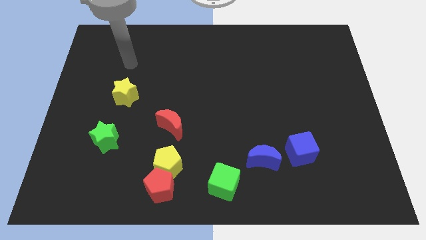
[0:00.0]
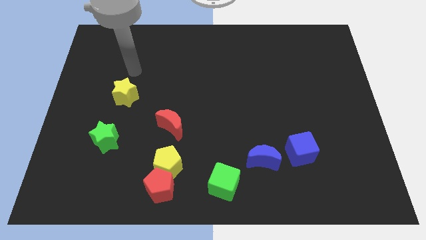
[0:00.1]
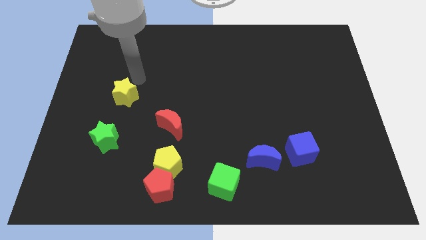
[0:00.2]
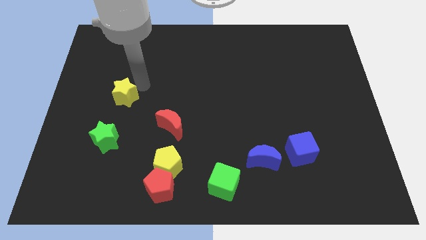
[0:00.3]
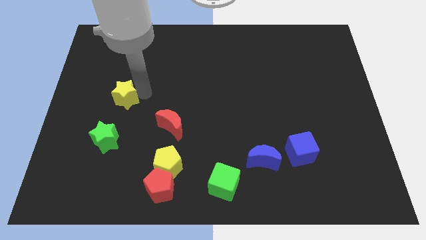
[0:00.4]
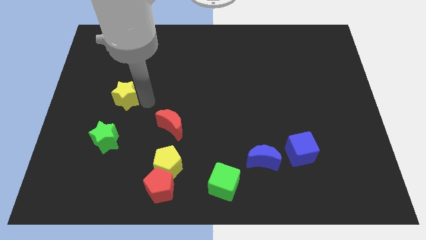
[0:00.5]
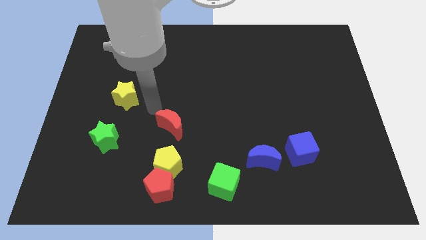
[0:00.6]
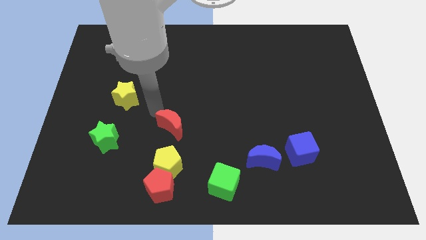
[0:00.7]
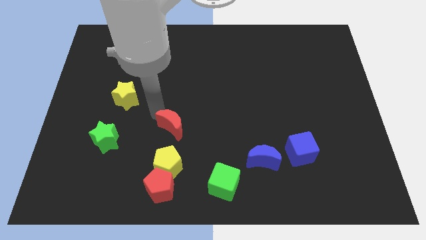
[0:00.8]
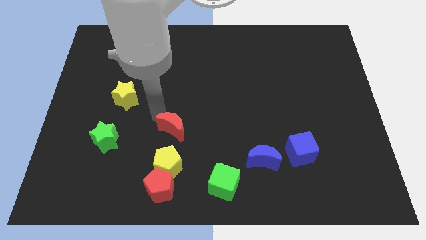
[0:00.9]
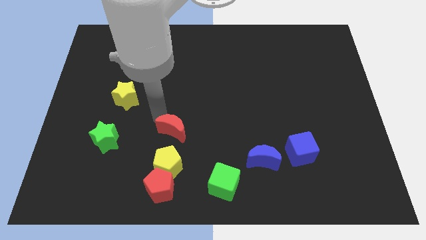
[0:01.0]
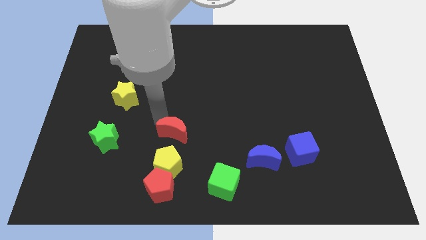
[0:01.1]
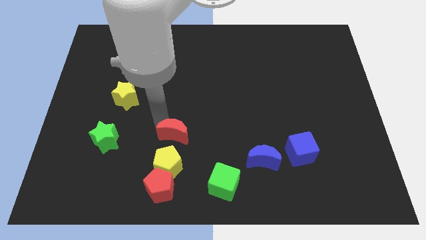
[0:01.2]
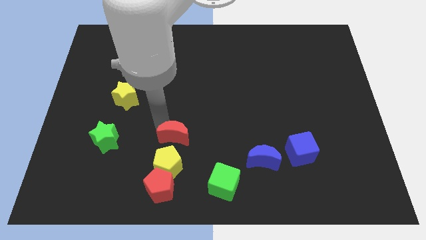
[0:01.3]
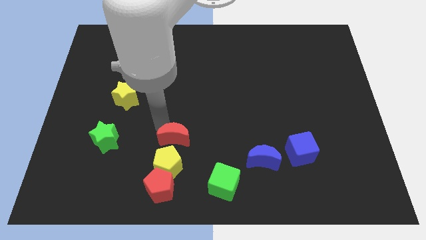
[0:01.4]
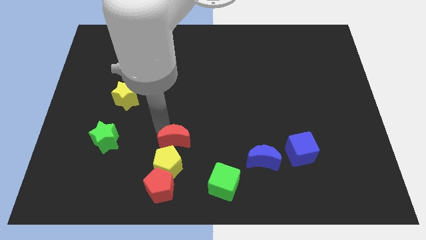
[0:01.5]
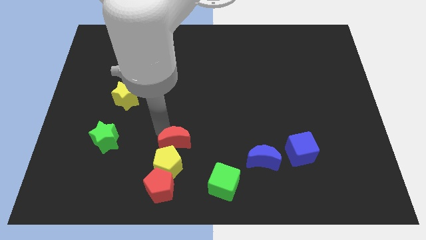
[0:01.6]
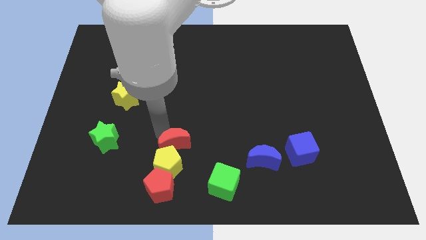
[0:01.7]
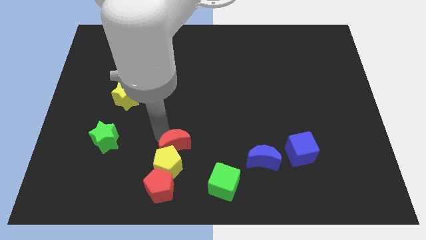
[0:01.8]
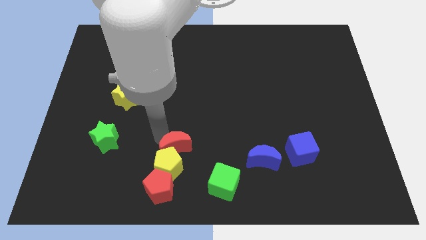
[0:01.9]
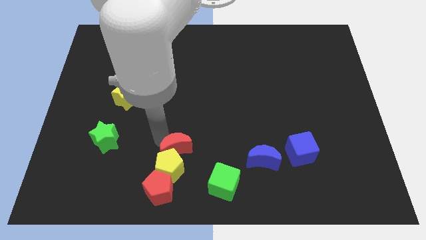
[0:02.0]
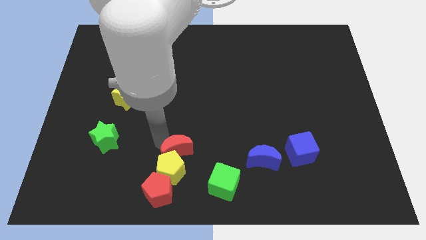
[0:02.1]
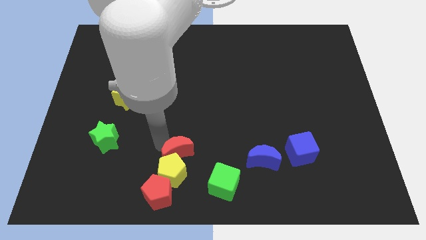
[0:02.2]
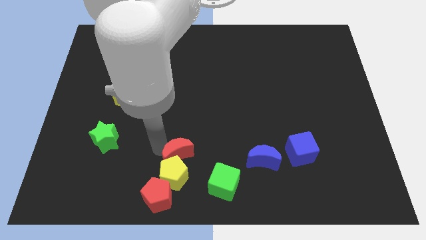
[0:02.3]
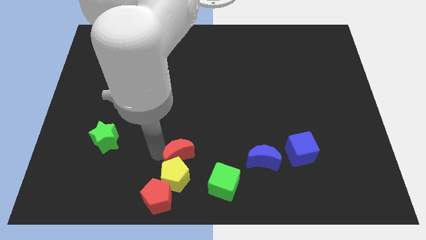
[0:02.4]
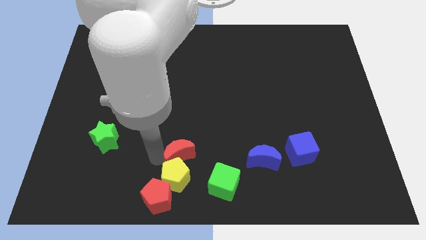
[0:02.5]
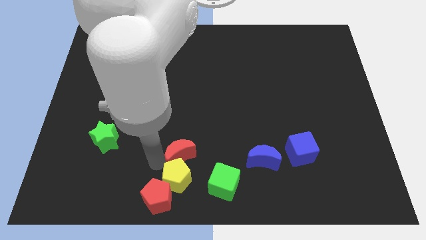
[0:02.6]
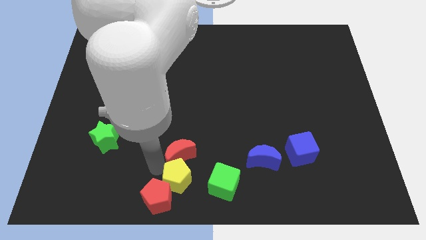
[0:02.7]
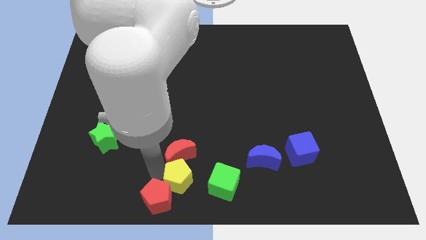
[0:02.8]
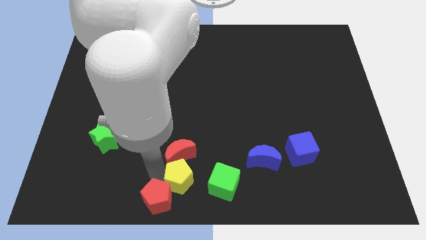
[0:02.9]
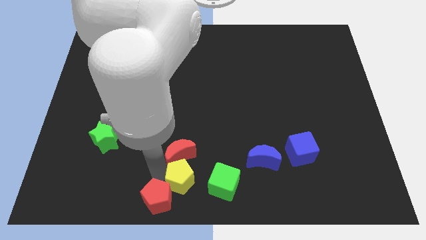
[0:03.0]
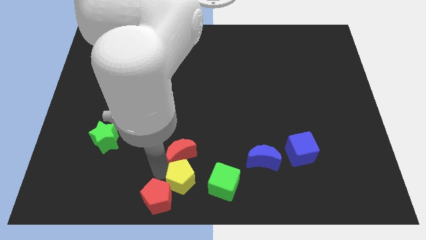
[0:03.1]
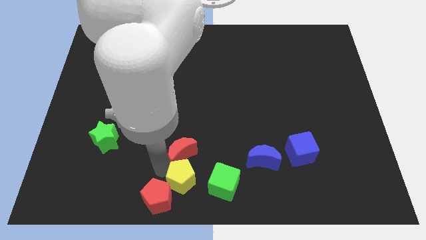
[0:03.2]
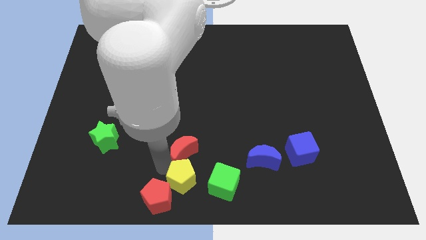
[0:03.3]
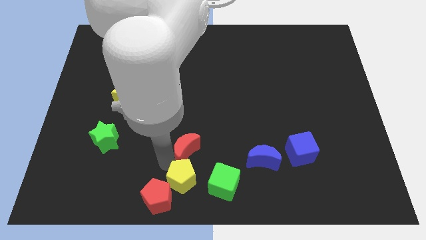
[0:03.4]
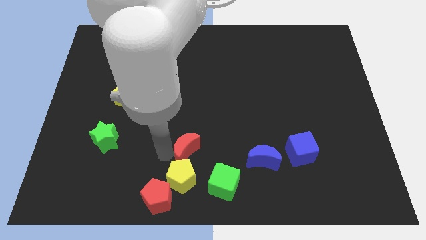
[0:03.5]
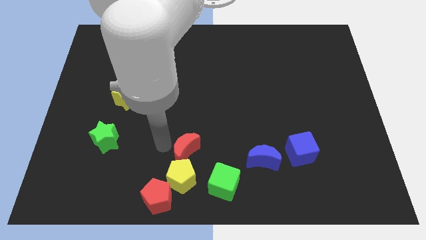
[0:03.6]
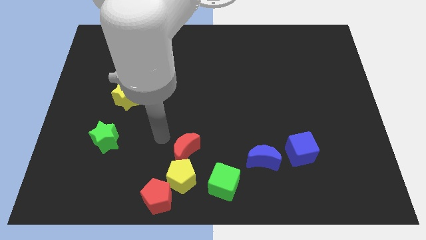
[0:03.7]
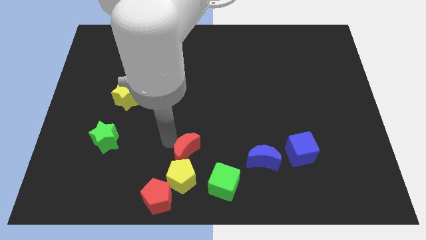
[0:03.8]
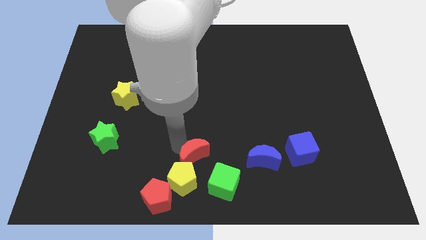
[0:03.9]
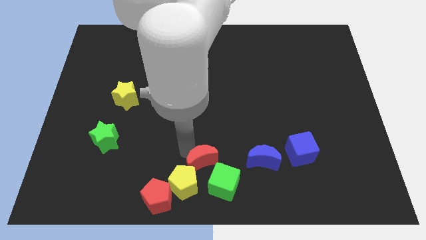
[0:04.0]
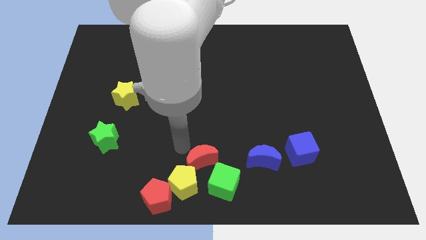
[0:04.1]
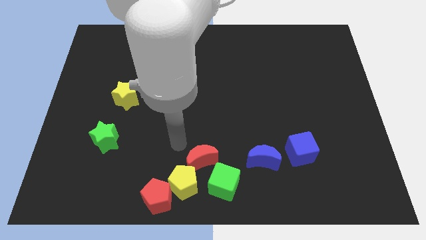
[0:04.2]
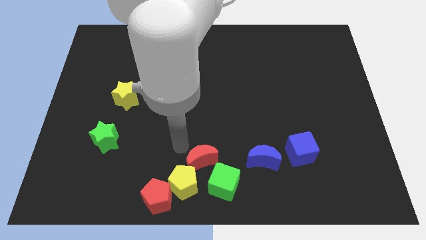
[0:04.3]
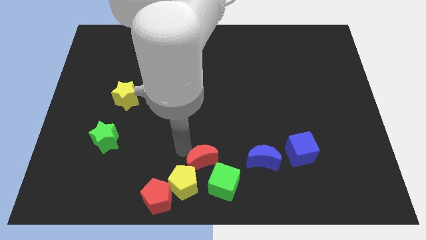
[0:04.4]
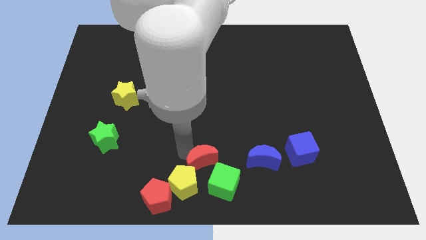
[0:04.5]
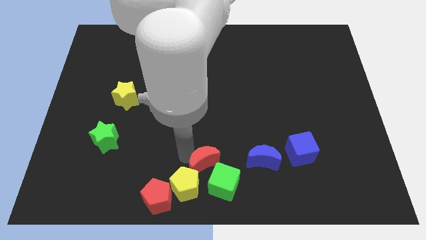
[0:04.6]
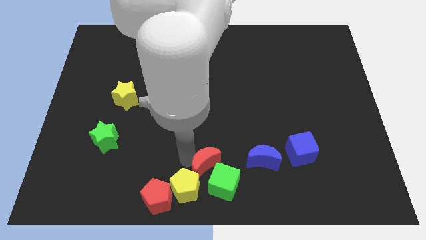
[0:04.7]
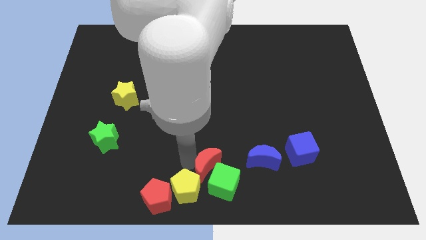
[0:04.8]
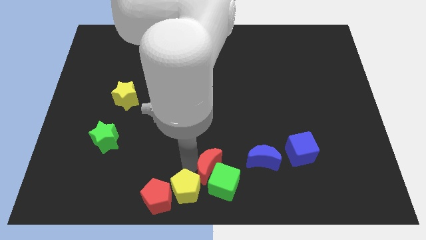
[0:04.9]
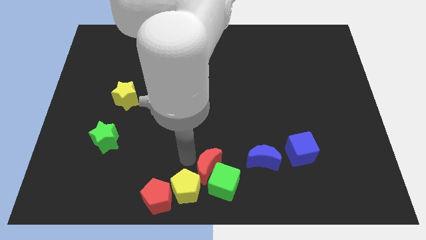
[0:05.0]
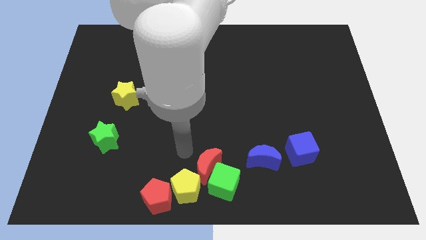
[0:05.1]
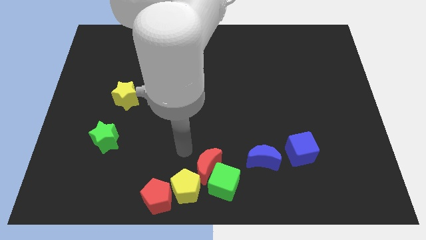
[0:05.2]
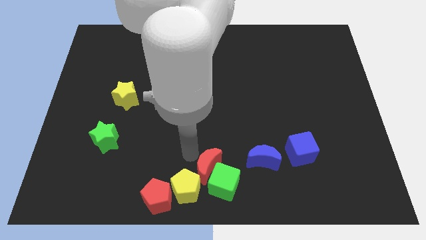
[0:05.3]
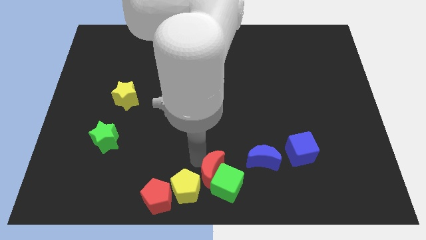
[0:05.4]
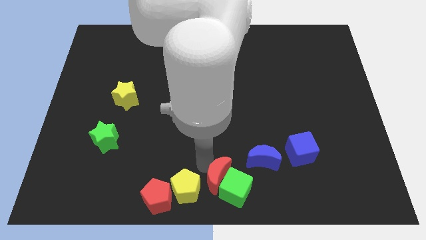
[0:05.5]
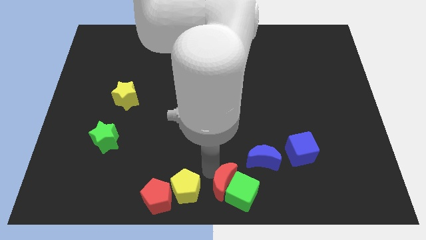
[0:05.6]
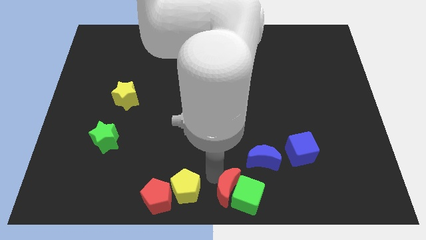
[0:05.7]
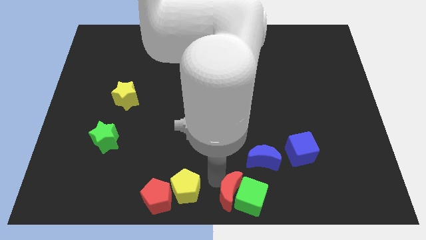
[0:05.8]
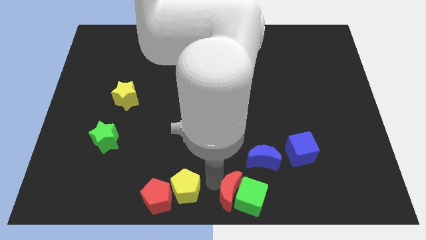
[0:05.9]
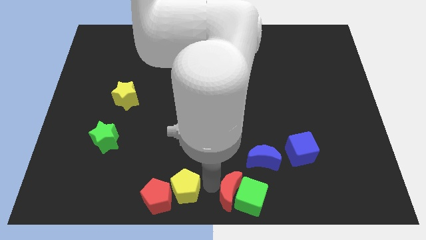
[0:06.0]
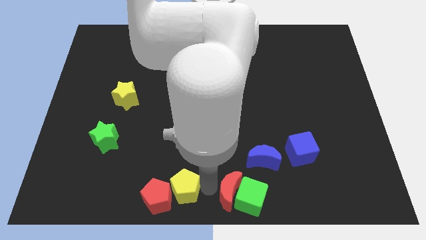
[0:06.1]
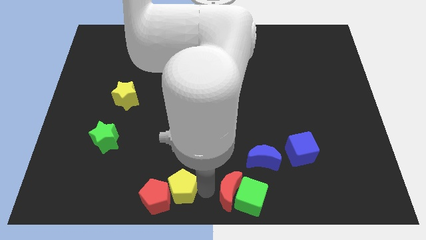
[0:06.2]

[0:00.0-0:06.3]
put the red moon right of the yellow pentagon
